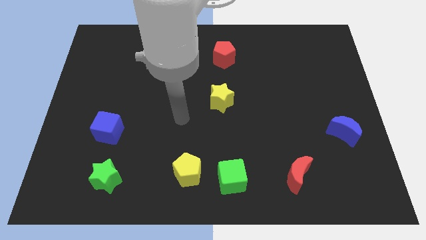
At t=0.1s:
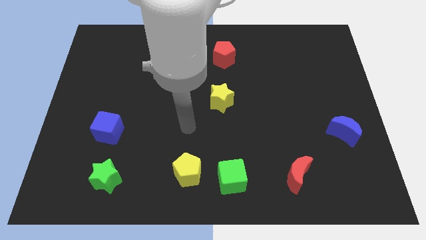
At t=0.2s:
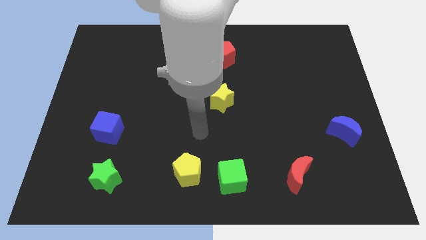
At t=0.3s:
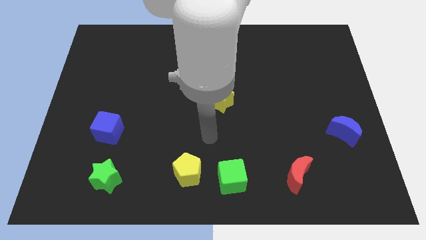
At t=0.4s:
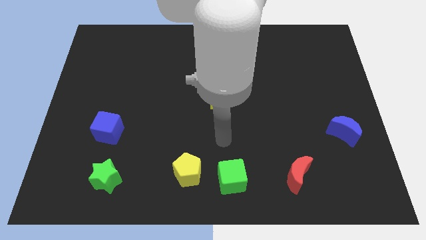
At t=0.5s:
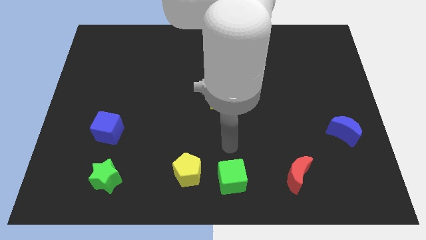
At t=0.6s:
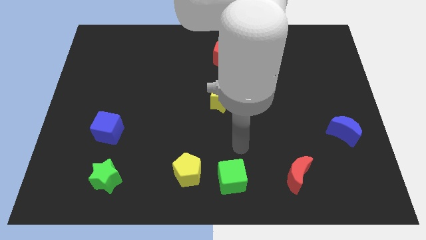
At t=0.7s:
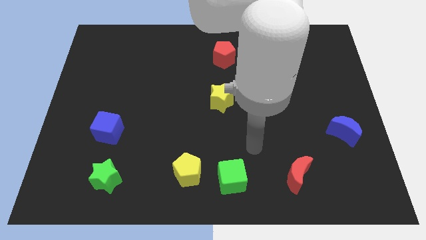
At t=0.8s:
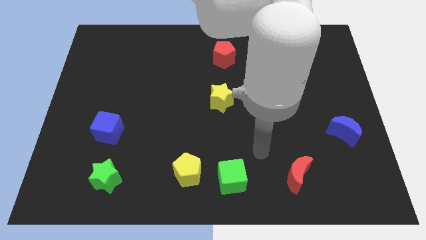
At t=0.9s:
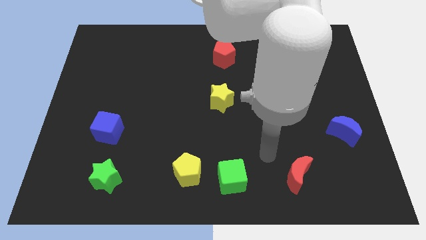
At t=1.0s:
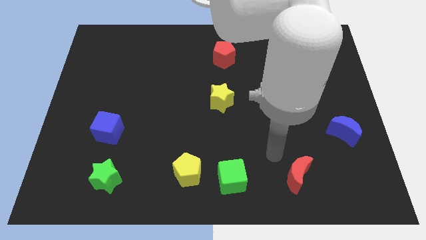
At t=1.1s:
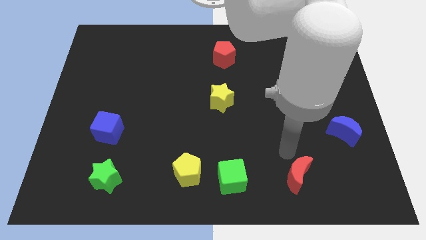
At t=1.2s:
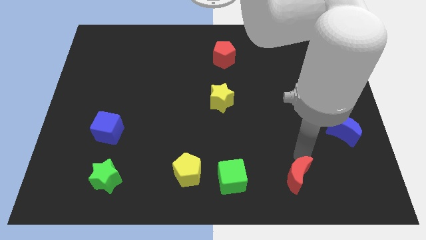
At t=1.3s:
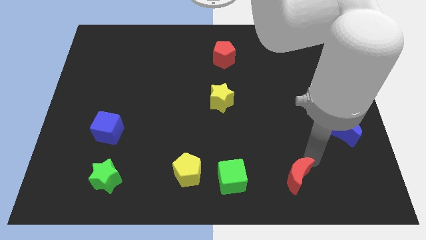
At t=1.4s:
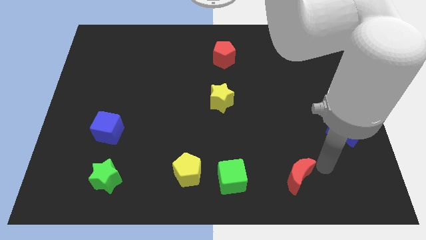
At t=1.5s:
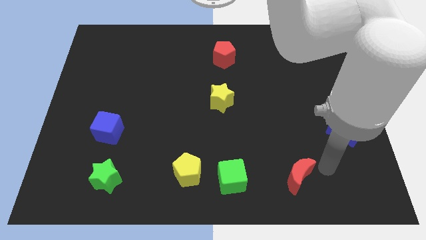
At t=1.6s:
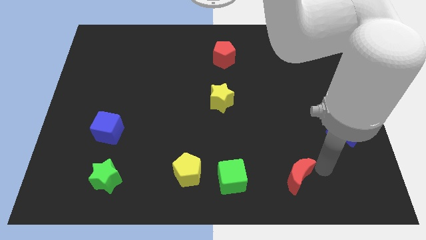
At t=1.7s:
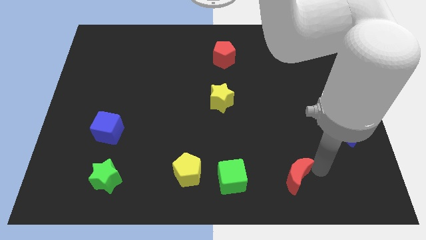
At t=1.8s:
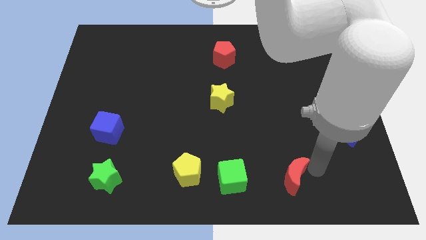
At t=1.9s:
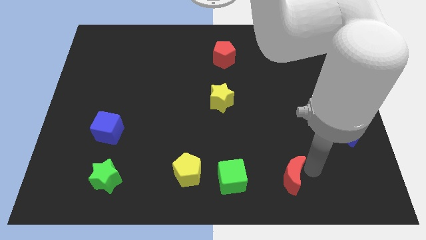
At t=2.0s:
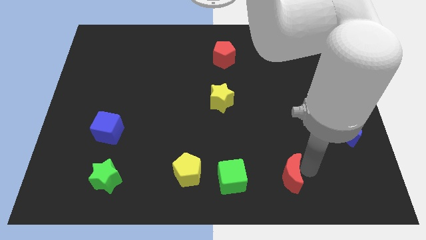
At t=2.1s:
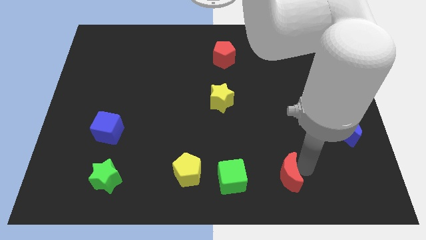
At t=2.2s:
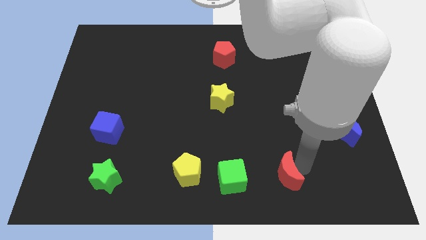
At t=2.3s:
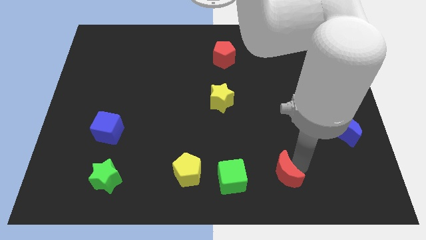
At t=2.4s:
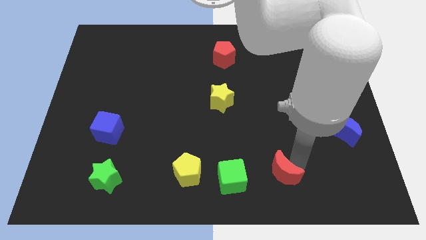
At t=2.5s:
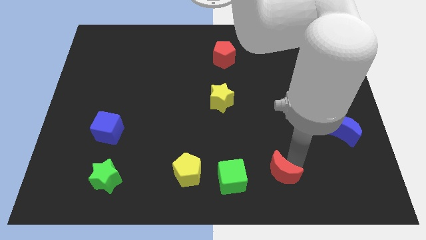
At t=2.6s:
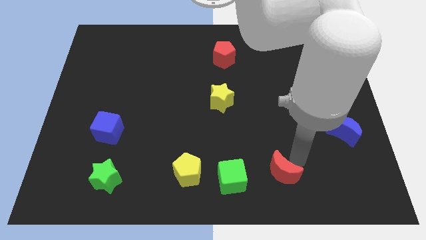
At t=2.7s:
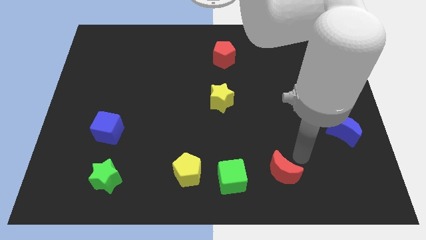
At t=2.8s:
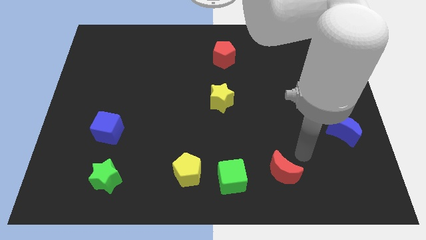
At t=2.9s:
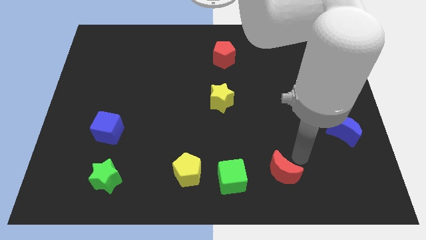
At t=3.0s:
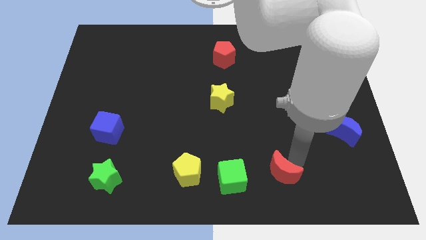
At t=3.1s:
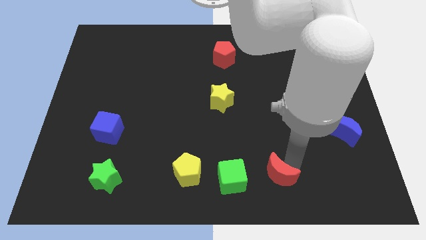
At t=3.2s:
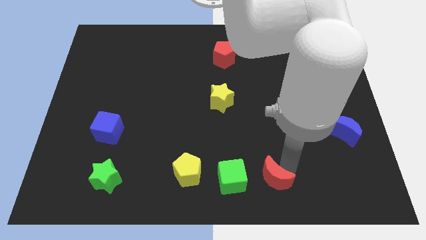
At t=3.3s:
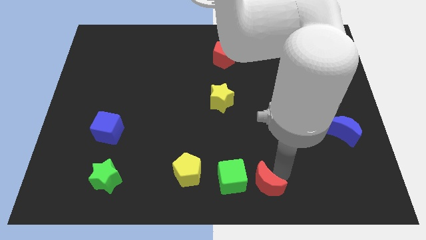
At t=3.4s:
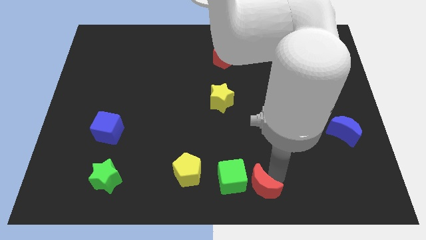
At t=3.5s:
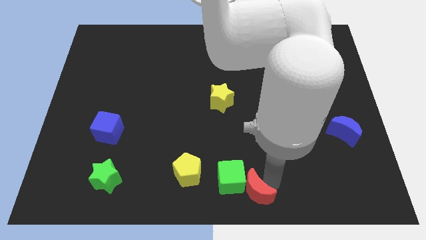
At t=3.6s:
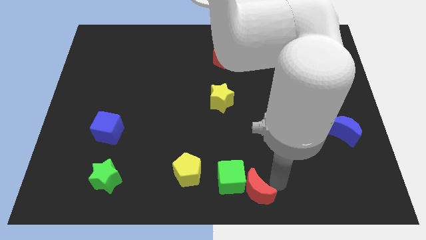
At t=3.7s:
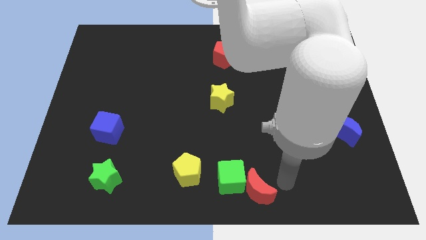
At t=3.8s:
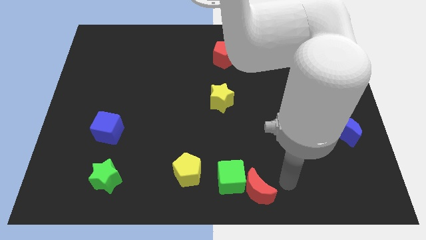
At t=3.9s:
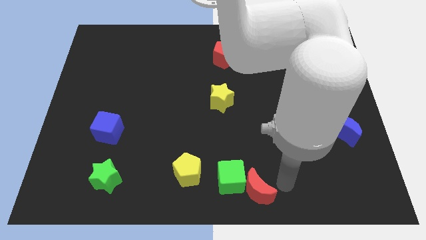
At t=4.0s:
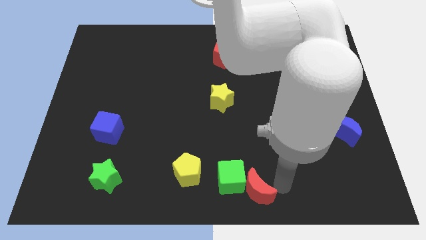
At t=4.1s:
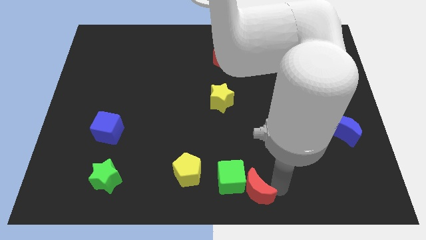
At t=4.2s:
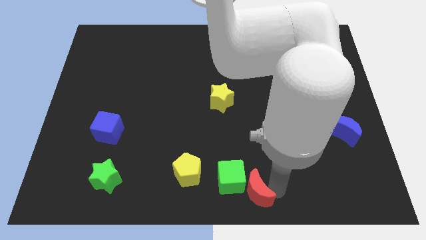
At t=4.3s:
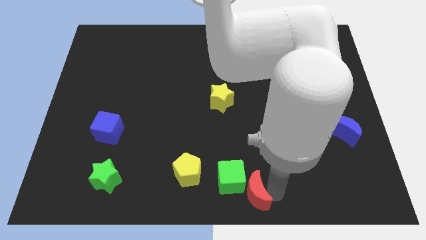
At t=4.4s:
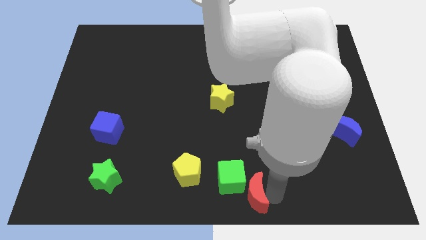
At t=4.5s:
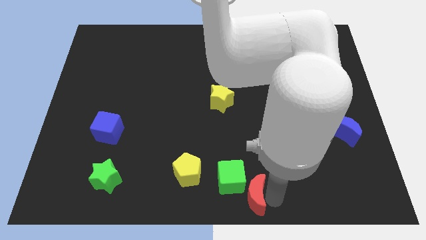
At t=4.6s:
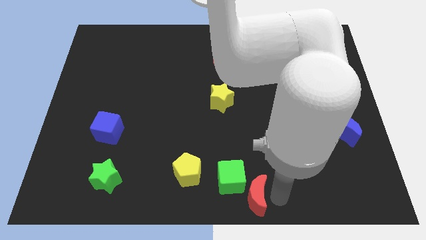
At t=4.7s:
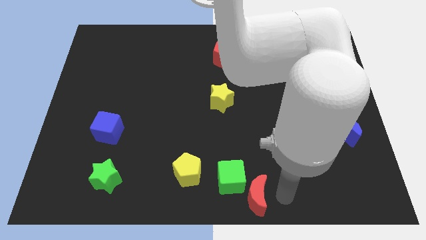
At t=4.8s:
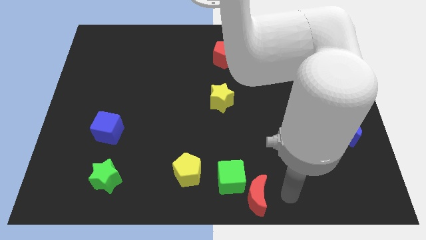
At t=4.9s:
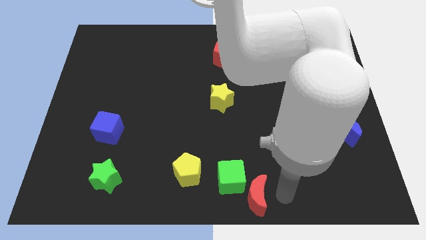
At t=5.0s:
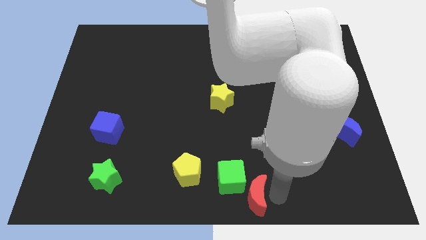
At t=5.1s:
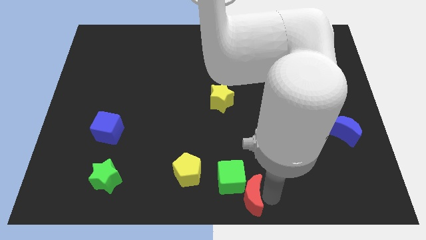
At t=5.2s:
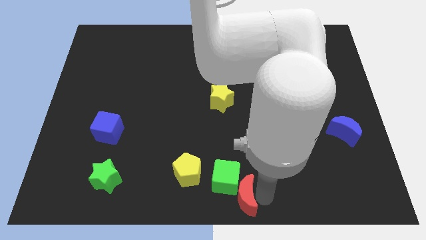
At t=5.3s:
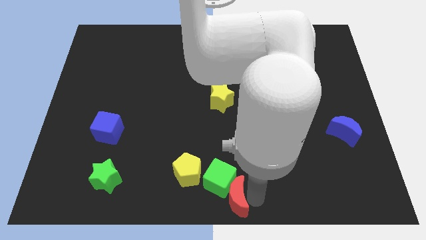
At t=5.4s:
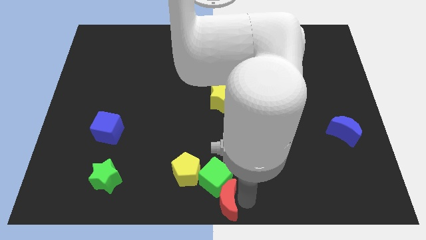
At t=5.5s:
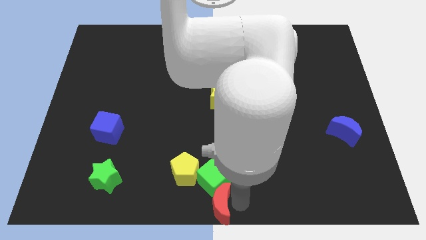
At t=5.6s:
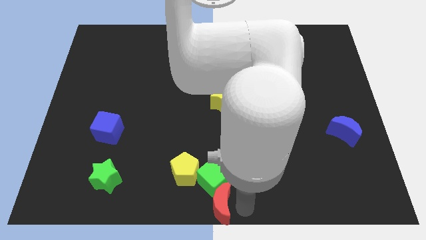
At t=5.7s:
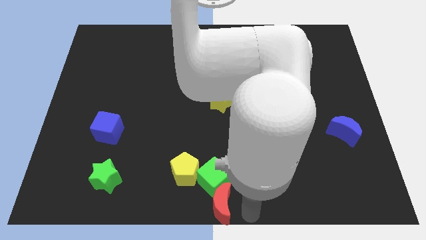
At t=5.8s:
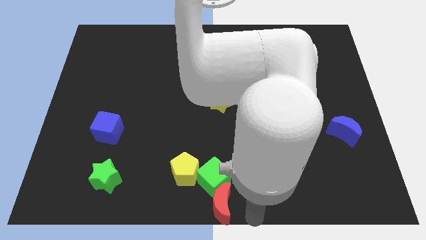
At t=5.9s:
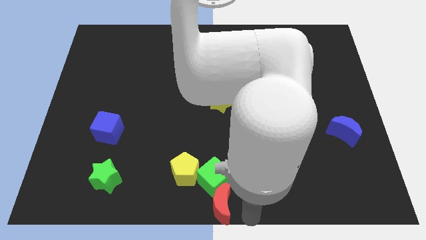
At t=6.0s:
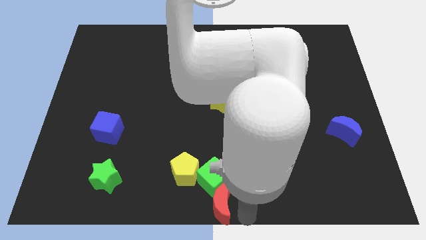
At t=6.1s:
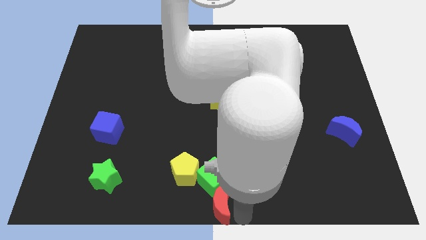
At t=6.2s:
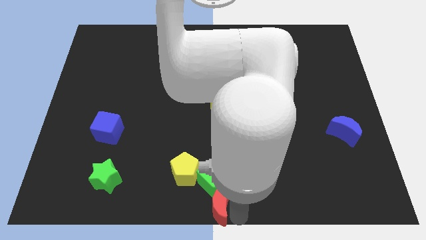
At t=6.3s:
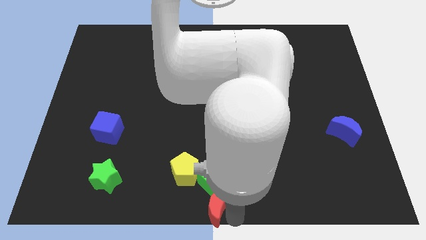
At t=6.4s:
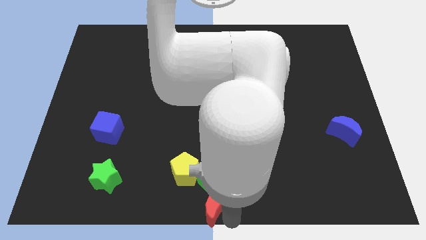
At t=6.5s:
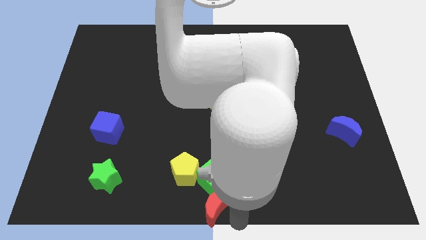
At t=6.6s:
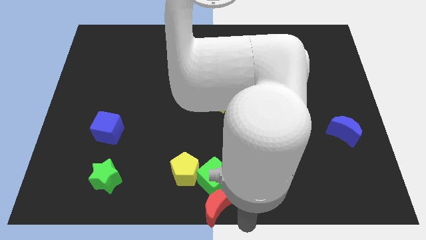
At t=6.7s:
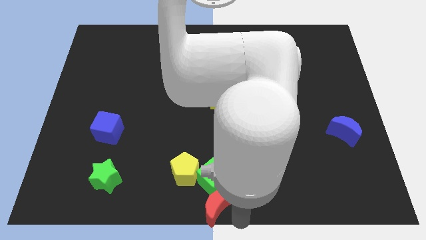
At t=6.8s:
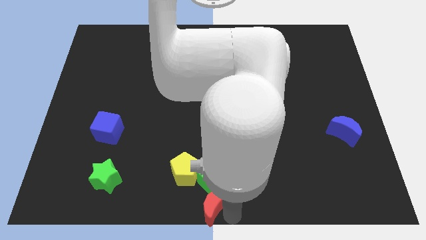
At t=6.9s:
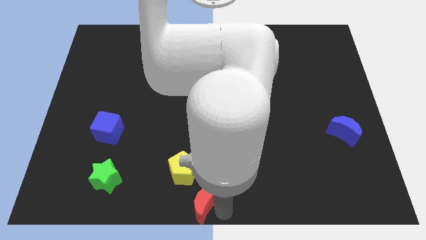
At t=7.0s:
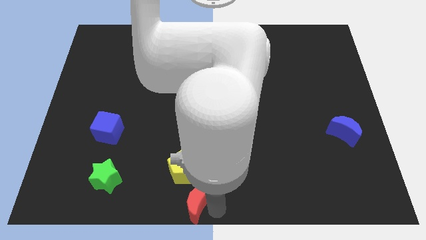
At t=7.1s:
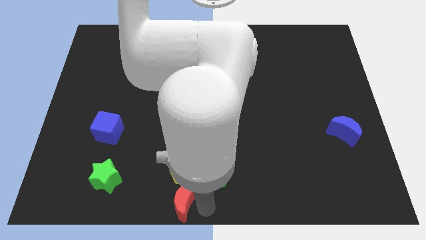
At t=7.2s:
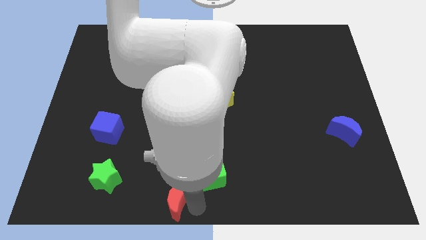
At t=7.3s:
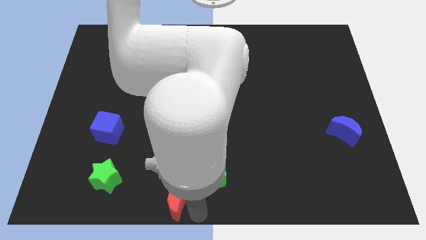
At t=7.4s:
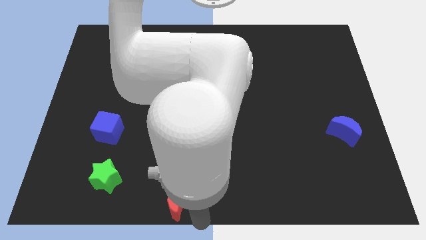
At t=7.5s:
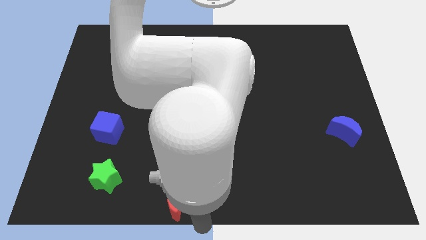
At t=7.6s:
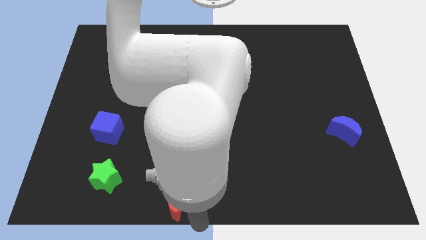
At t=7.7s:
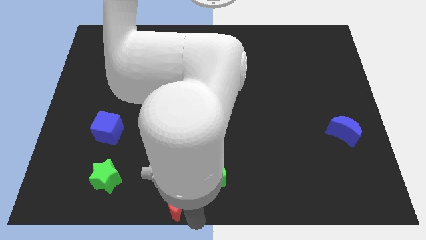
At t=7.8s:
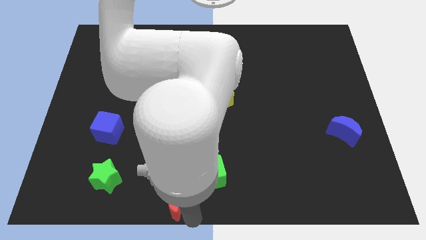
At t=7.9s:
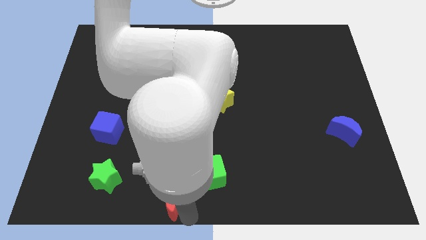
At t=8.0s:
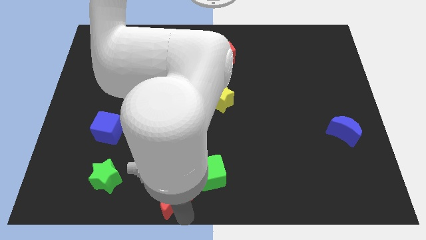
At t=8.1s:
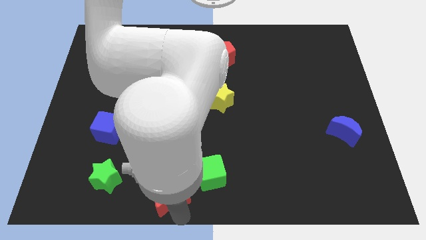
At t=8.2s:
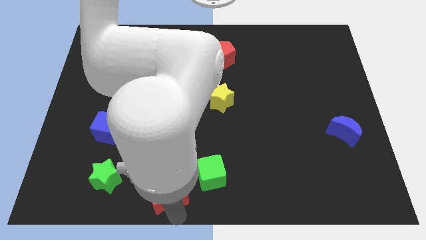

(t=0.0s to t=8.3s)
put the red moon just right of the green star

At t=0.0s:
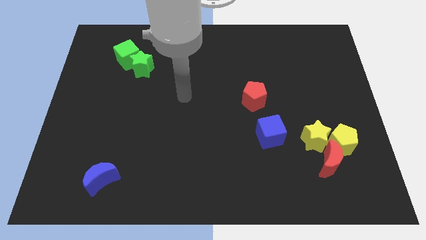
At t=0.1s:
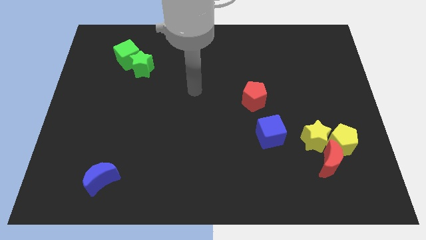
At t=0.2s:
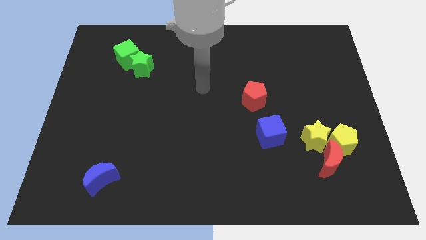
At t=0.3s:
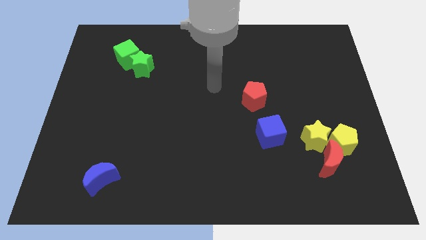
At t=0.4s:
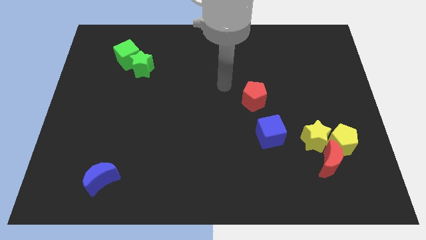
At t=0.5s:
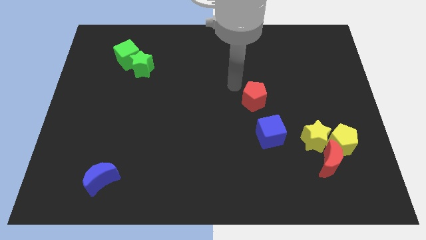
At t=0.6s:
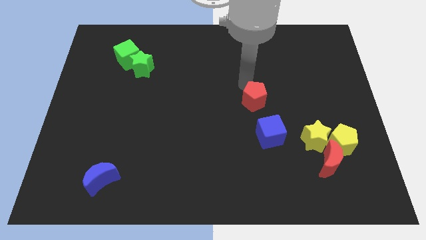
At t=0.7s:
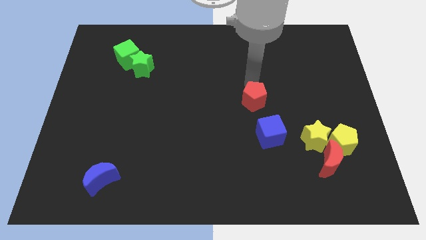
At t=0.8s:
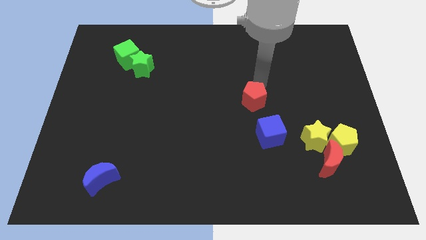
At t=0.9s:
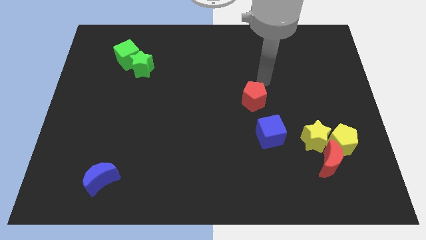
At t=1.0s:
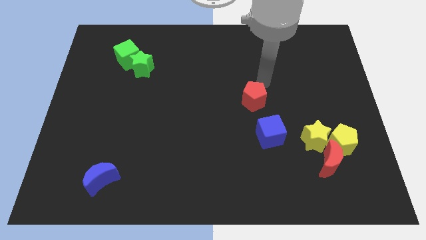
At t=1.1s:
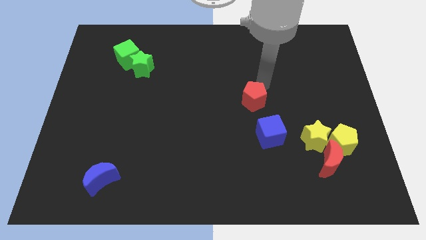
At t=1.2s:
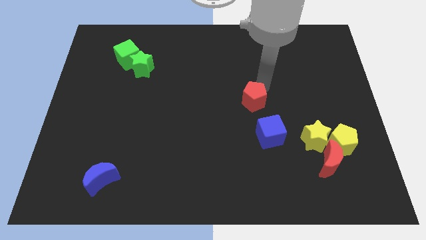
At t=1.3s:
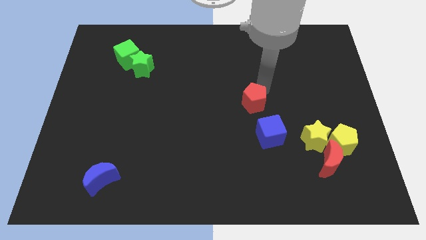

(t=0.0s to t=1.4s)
put the red pentagon to the top left side of the blue cube
